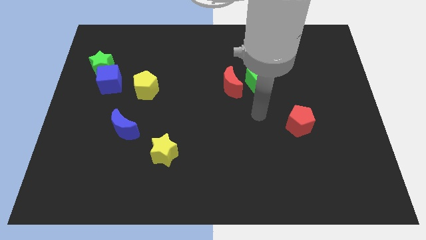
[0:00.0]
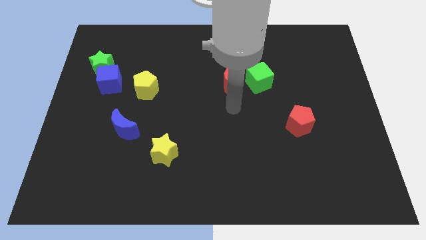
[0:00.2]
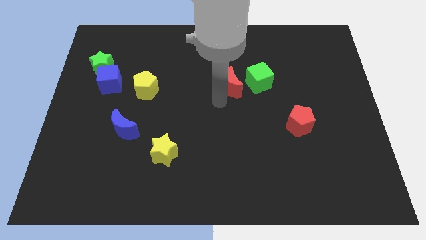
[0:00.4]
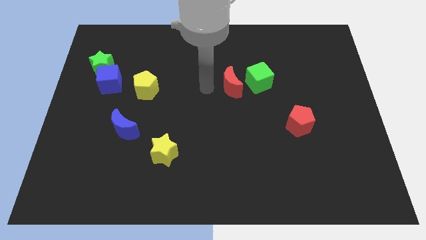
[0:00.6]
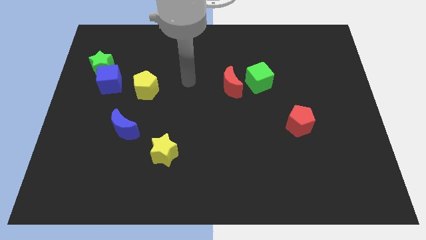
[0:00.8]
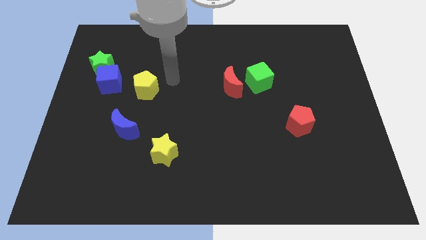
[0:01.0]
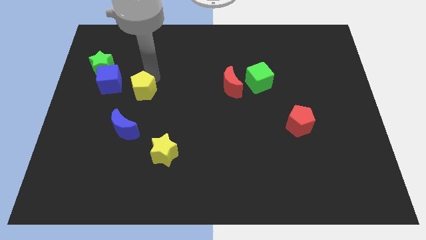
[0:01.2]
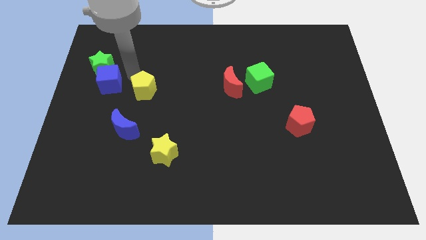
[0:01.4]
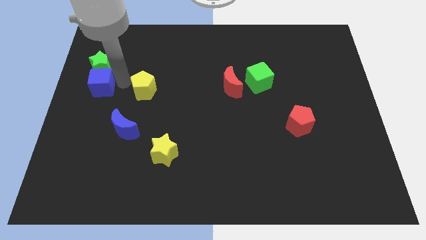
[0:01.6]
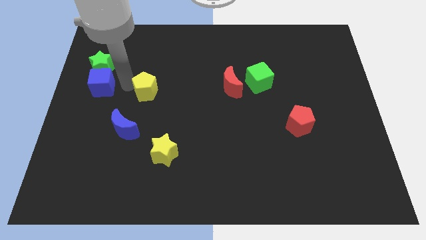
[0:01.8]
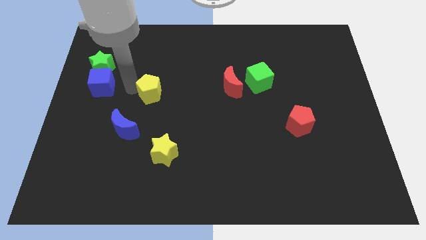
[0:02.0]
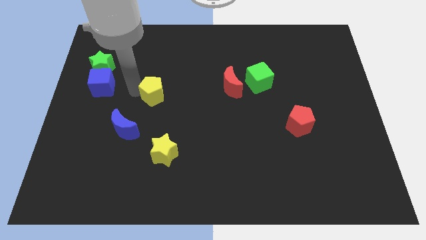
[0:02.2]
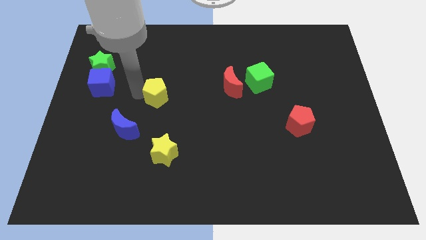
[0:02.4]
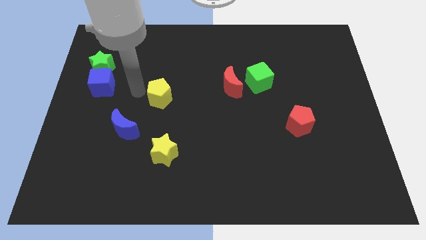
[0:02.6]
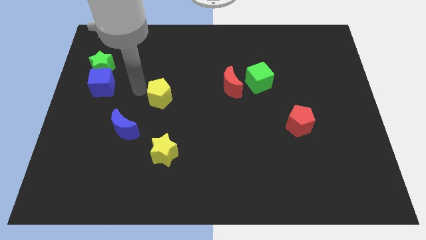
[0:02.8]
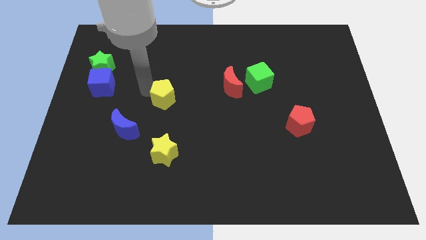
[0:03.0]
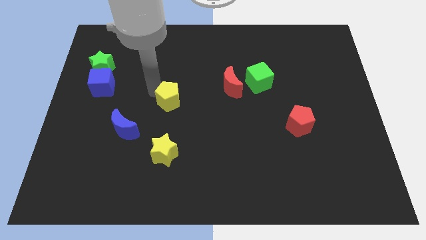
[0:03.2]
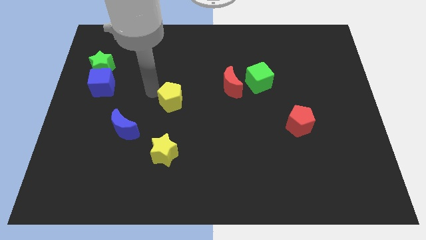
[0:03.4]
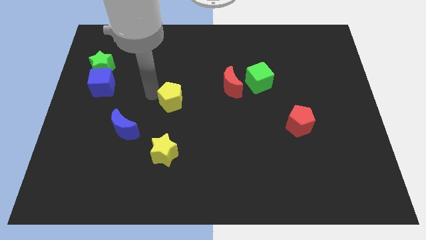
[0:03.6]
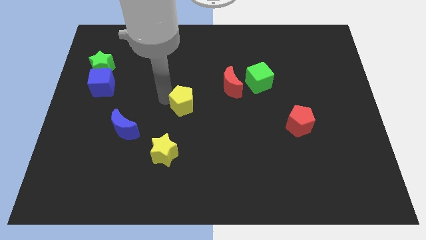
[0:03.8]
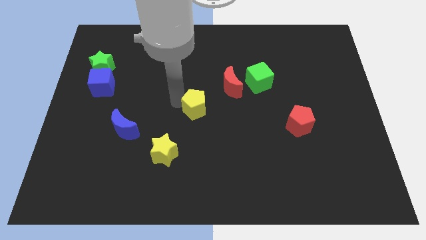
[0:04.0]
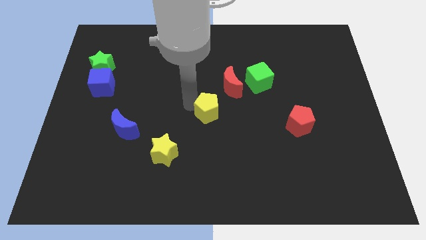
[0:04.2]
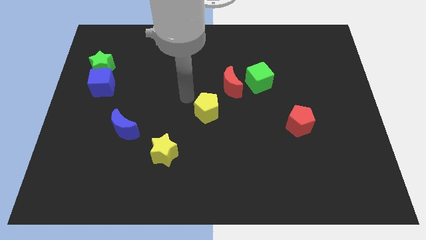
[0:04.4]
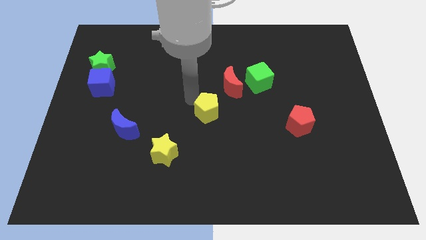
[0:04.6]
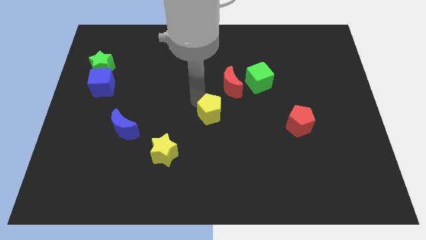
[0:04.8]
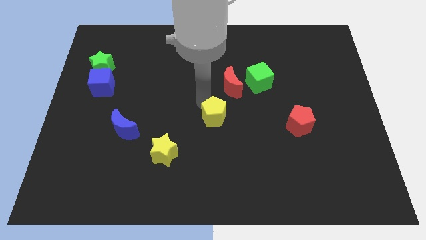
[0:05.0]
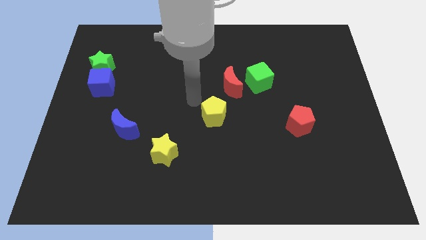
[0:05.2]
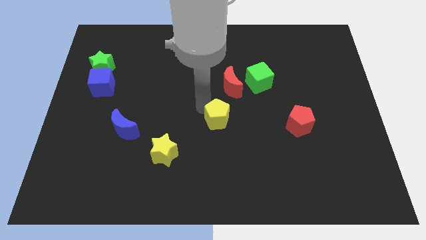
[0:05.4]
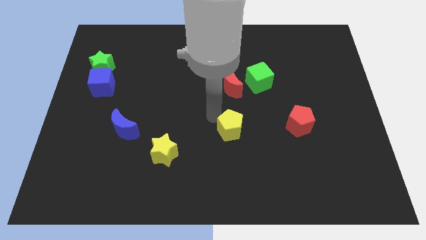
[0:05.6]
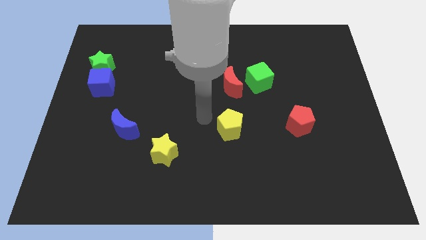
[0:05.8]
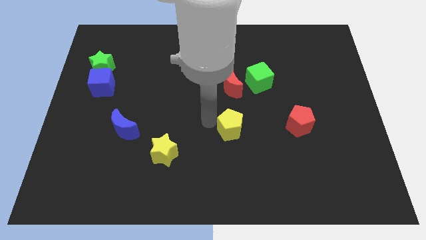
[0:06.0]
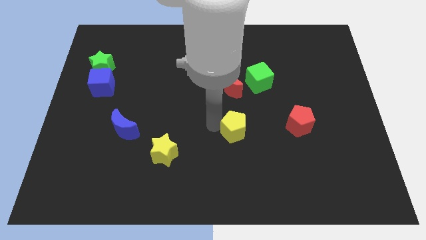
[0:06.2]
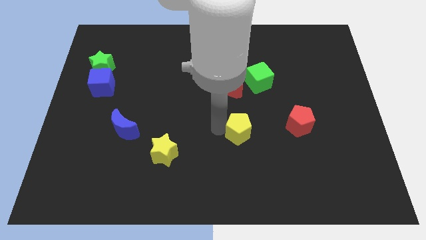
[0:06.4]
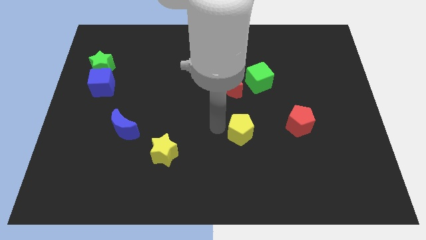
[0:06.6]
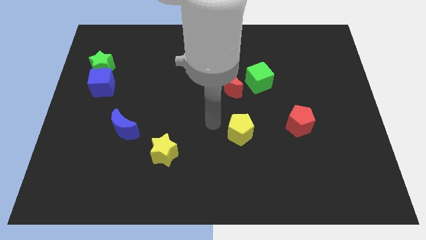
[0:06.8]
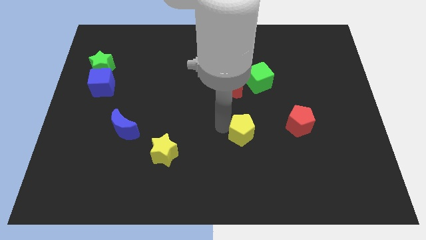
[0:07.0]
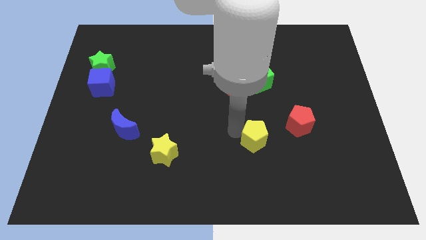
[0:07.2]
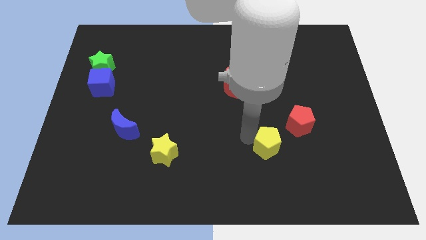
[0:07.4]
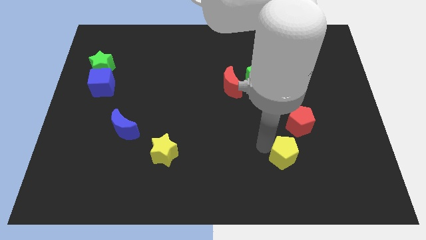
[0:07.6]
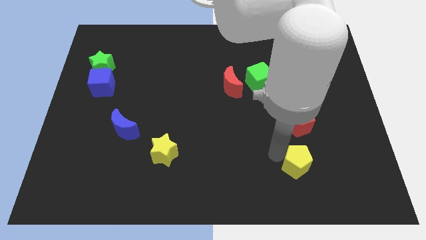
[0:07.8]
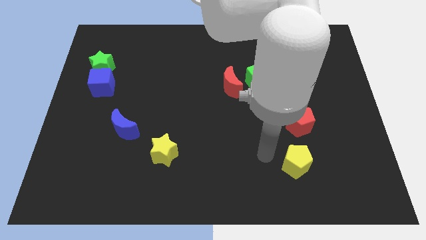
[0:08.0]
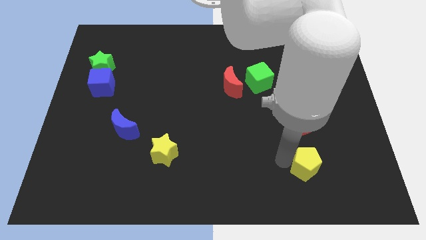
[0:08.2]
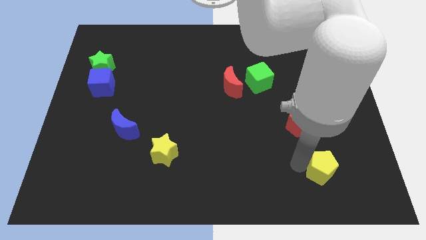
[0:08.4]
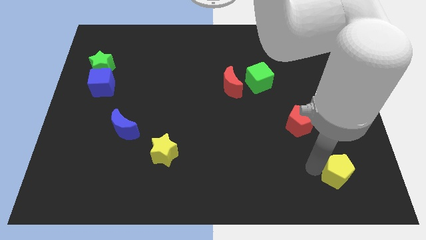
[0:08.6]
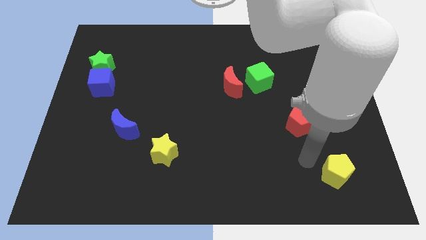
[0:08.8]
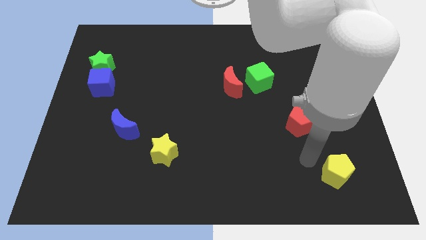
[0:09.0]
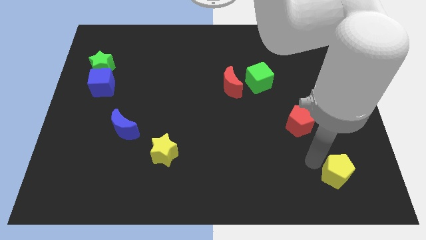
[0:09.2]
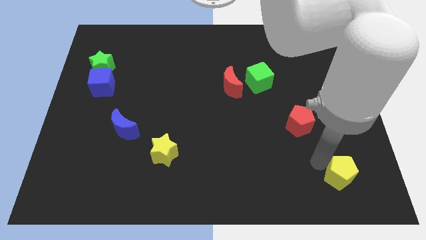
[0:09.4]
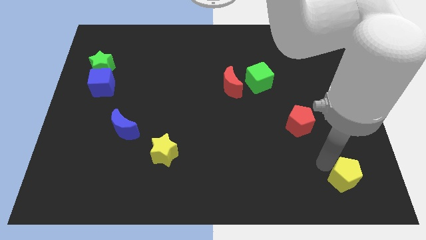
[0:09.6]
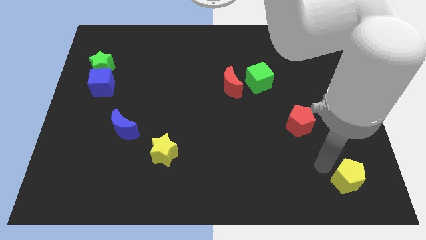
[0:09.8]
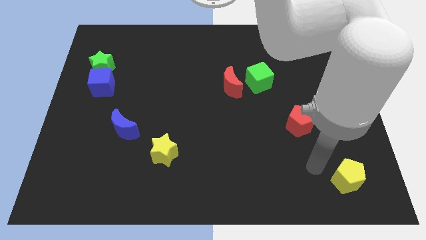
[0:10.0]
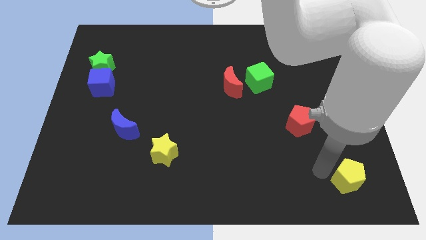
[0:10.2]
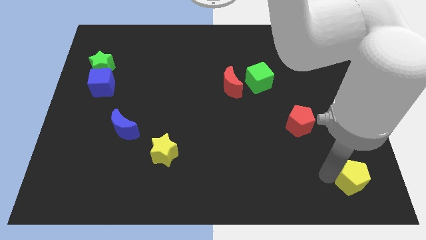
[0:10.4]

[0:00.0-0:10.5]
move the yellow pentagon to the bottom right of the board

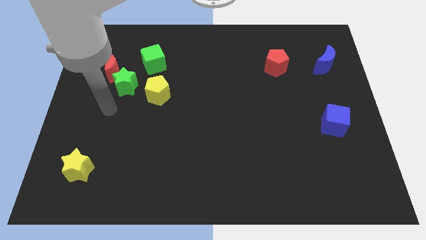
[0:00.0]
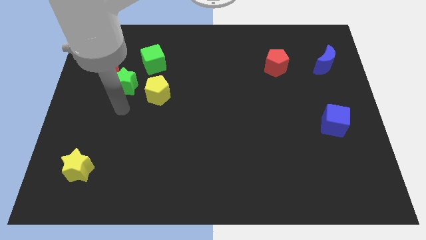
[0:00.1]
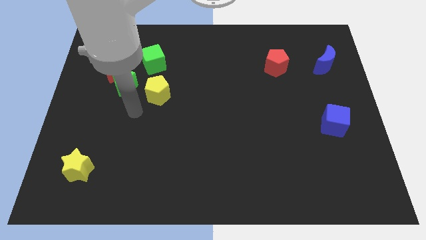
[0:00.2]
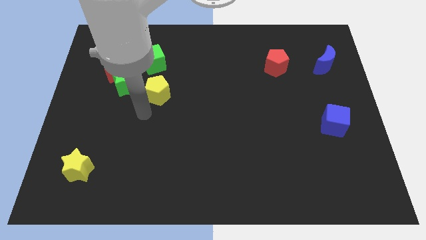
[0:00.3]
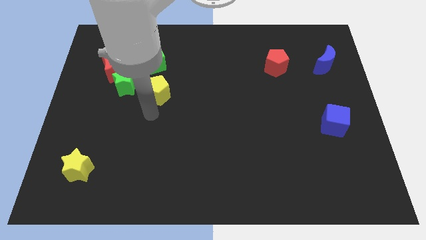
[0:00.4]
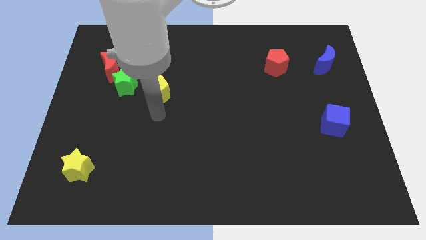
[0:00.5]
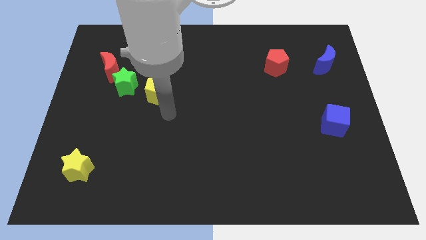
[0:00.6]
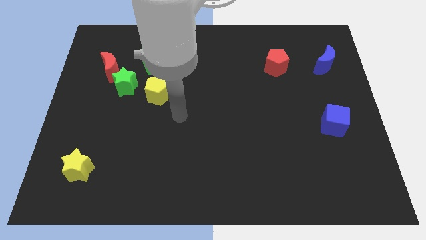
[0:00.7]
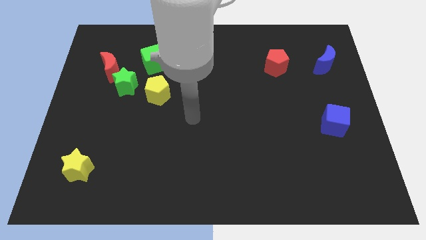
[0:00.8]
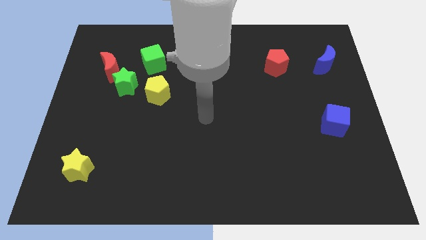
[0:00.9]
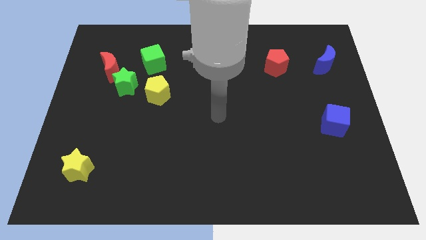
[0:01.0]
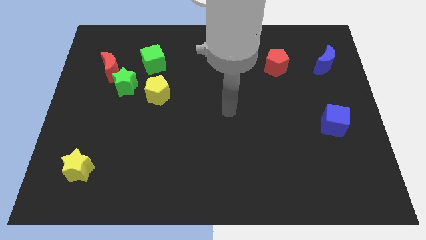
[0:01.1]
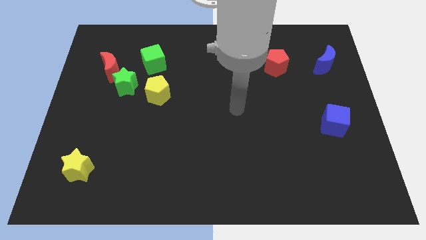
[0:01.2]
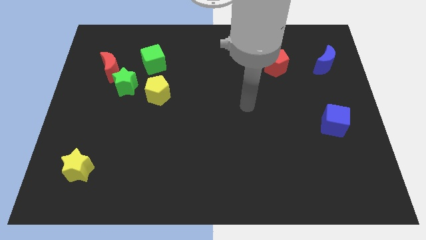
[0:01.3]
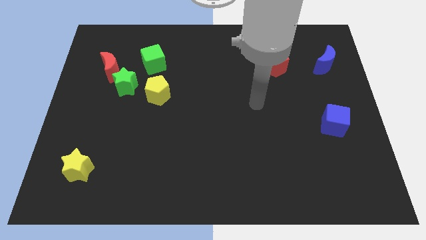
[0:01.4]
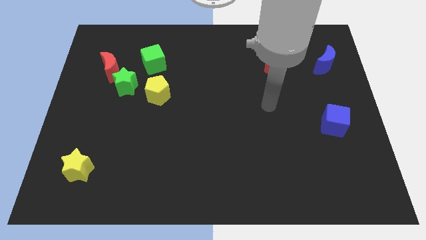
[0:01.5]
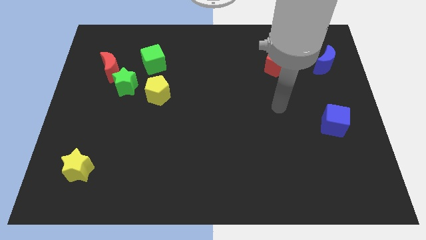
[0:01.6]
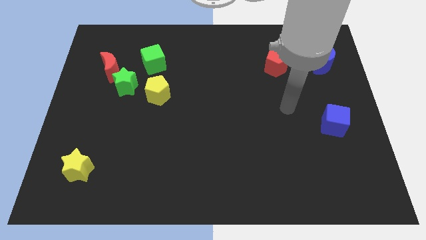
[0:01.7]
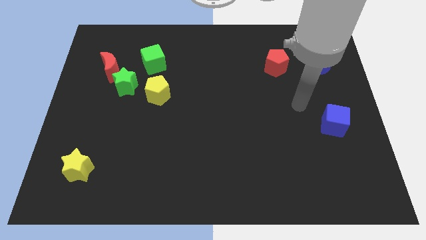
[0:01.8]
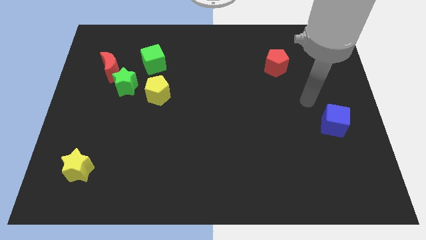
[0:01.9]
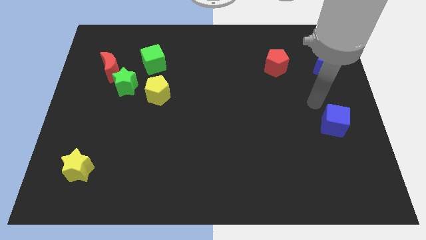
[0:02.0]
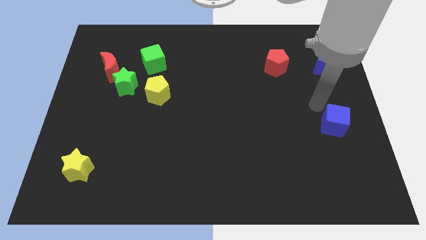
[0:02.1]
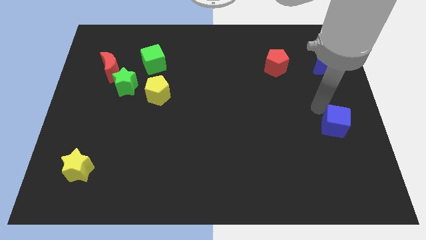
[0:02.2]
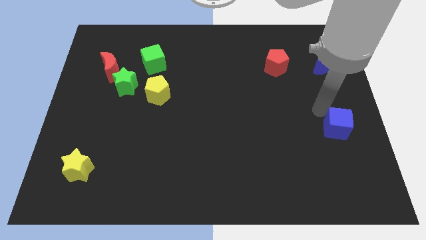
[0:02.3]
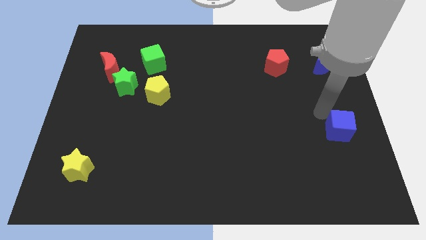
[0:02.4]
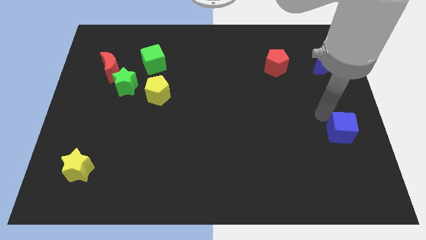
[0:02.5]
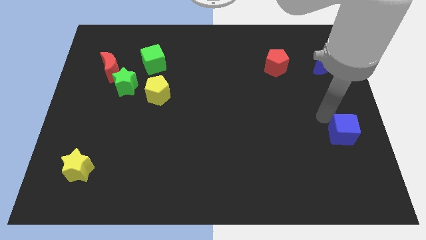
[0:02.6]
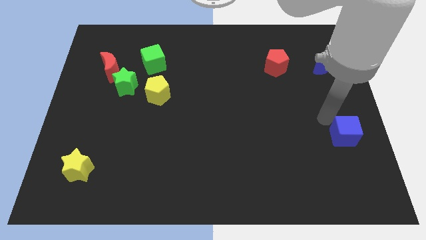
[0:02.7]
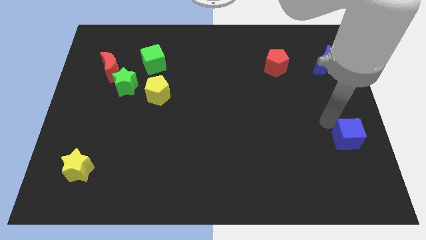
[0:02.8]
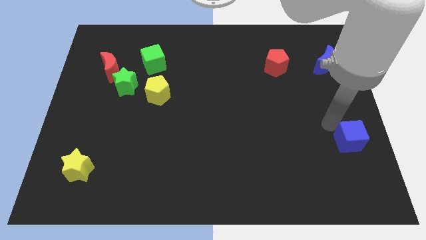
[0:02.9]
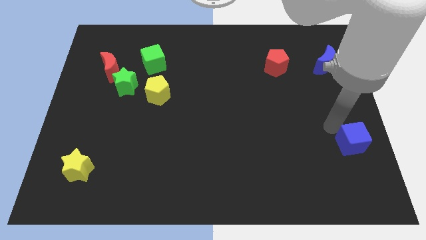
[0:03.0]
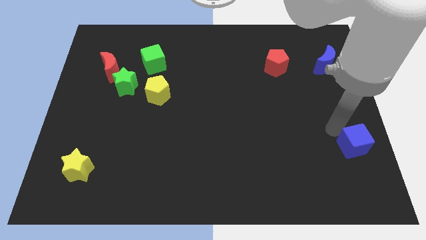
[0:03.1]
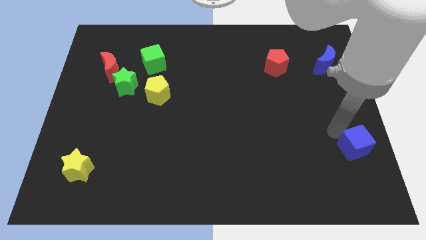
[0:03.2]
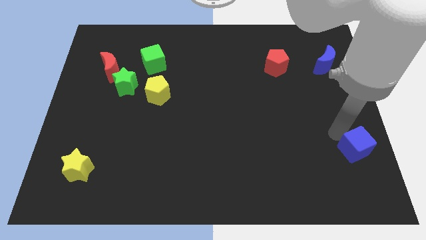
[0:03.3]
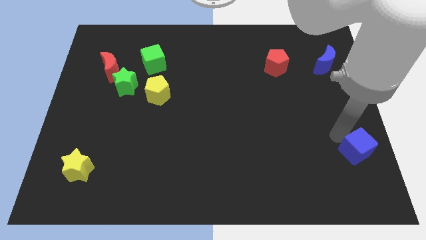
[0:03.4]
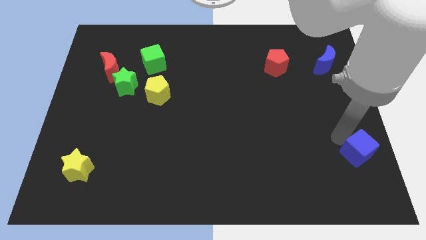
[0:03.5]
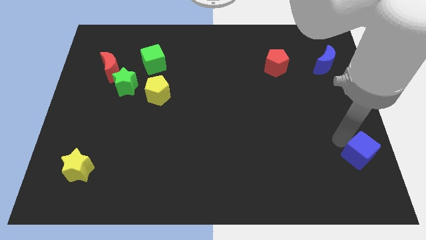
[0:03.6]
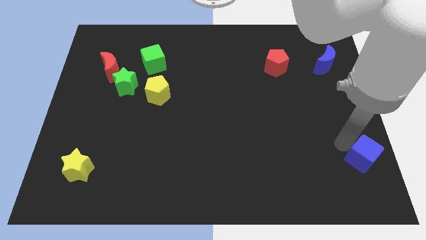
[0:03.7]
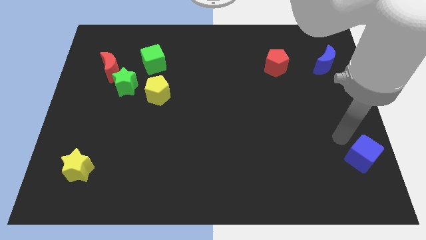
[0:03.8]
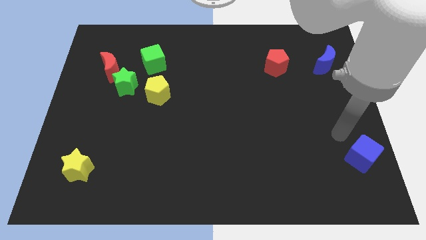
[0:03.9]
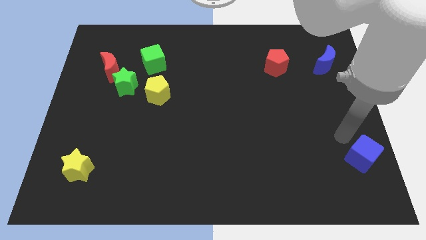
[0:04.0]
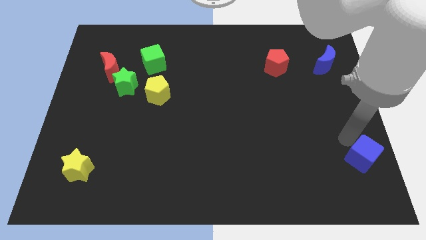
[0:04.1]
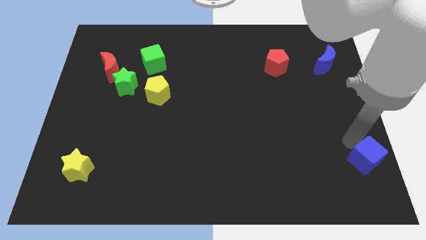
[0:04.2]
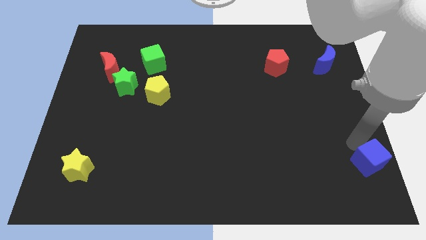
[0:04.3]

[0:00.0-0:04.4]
move the blue cube to the lower right corner
